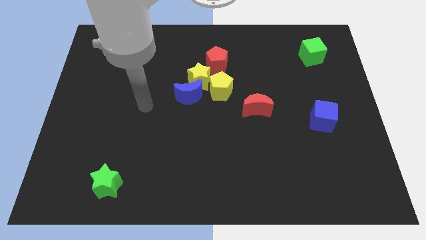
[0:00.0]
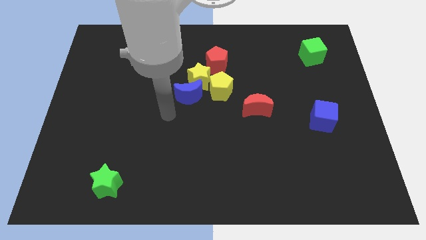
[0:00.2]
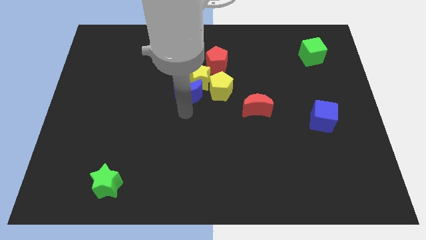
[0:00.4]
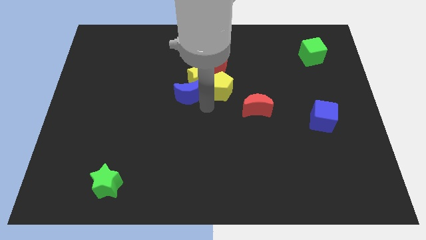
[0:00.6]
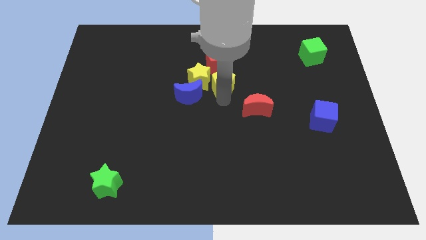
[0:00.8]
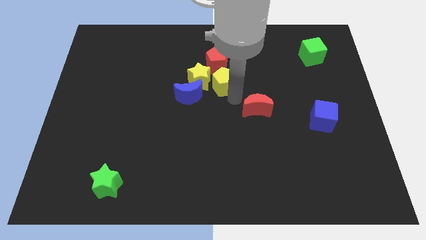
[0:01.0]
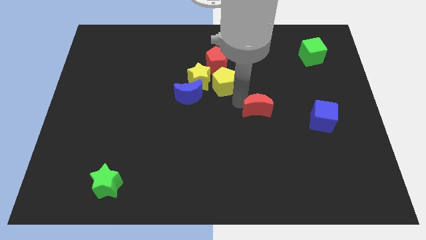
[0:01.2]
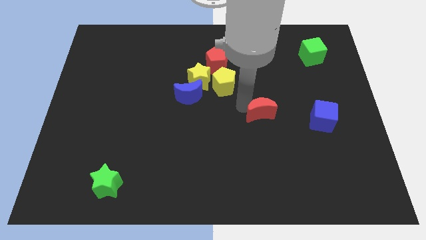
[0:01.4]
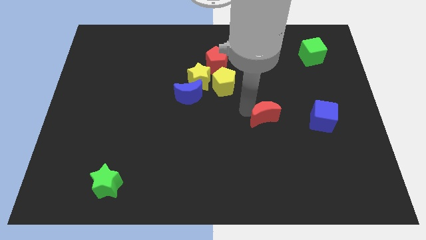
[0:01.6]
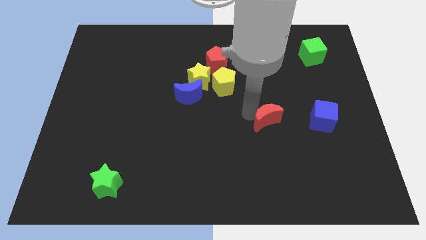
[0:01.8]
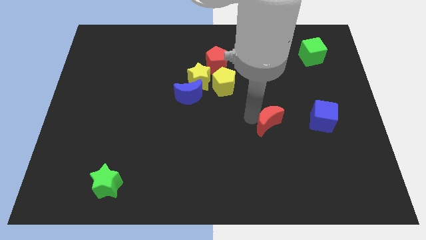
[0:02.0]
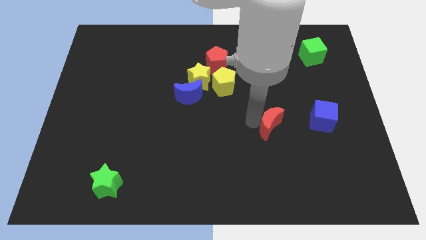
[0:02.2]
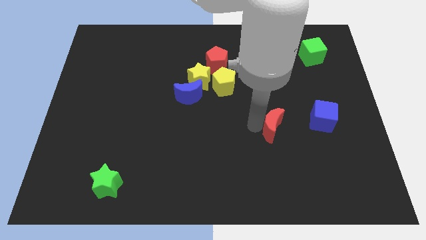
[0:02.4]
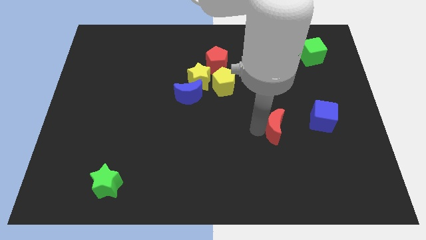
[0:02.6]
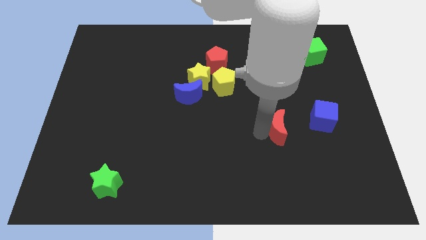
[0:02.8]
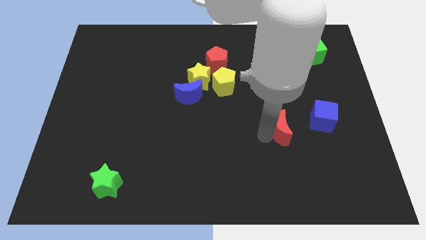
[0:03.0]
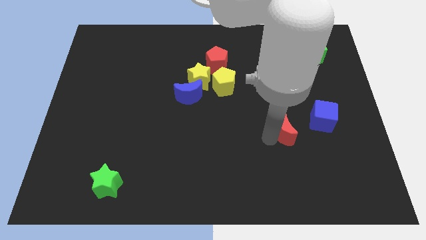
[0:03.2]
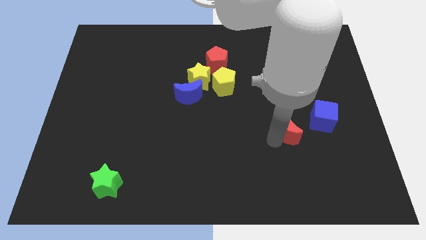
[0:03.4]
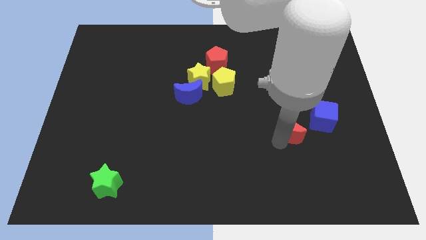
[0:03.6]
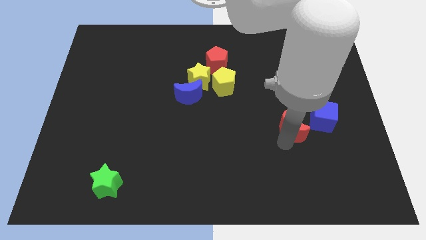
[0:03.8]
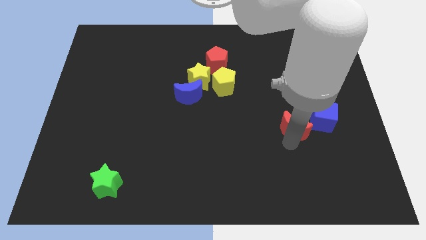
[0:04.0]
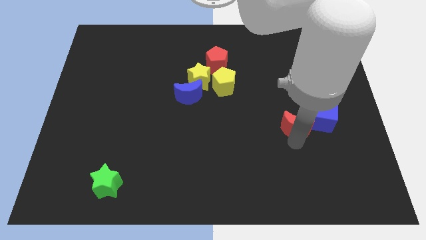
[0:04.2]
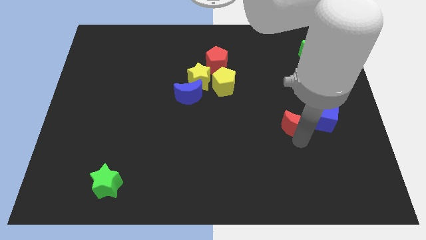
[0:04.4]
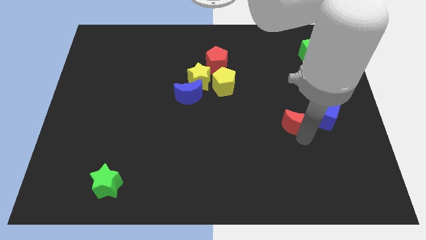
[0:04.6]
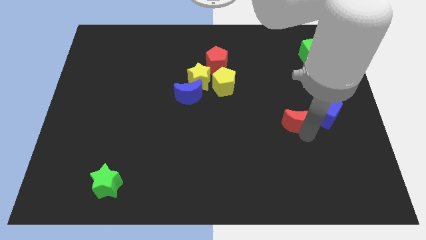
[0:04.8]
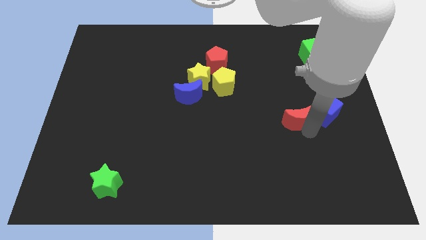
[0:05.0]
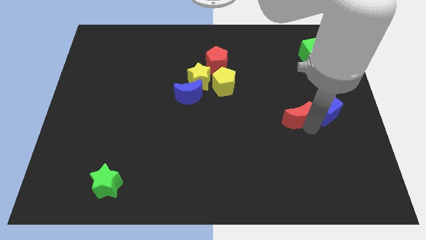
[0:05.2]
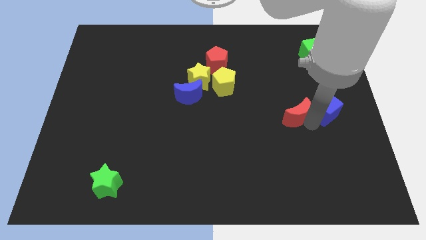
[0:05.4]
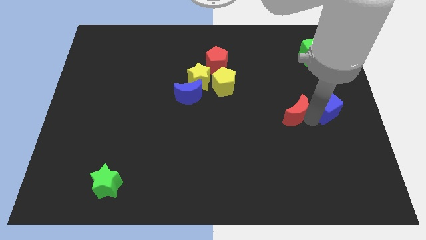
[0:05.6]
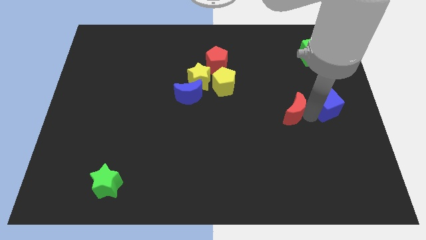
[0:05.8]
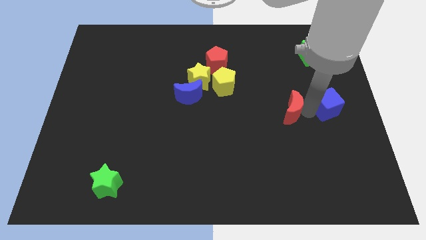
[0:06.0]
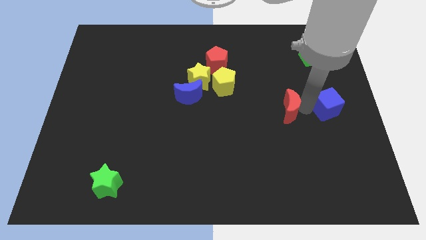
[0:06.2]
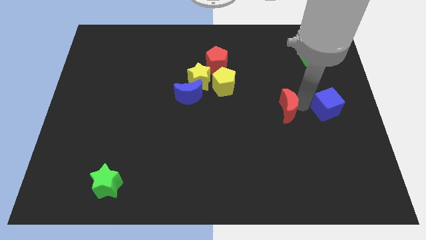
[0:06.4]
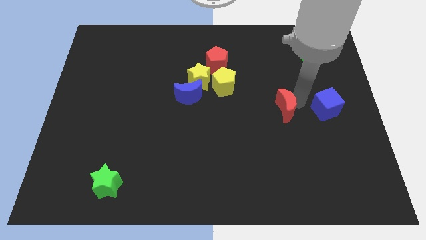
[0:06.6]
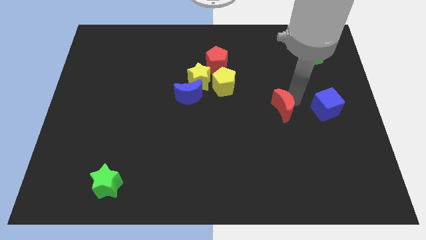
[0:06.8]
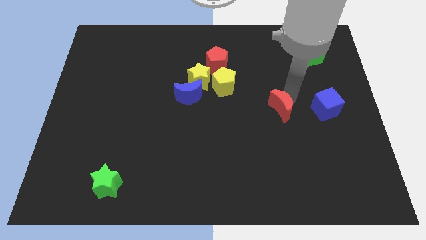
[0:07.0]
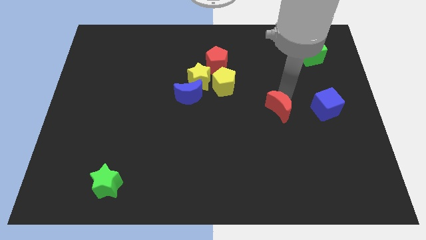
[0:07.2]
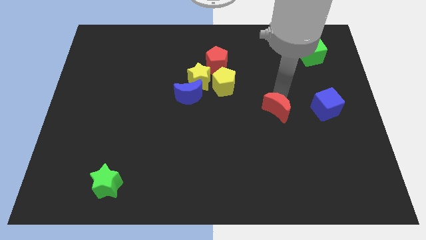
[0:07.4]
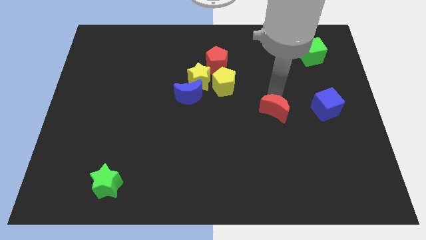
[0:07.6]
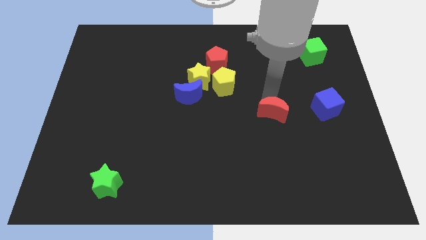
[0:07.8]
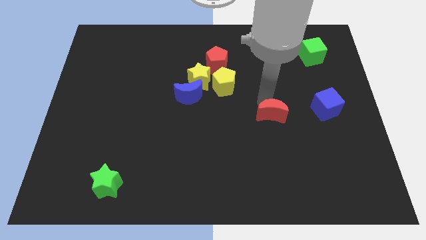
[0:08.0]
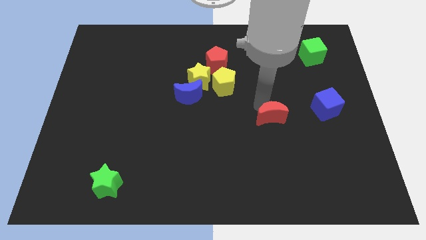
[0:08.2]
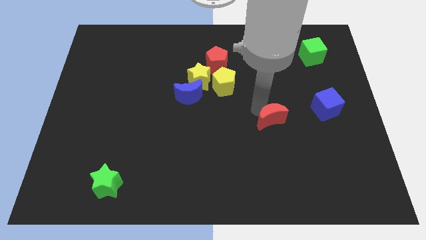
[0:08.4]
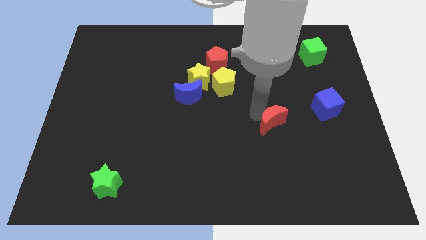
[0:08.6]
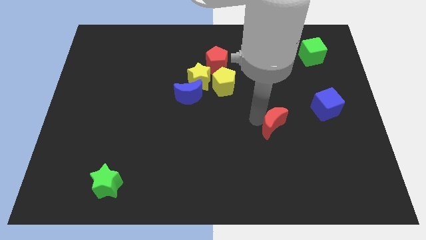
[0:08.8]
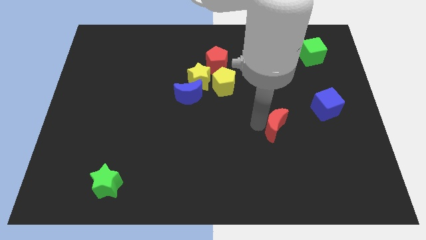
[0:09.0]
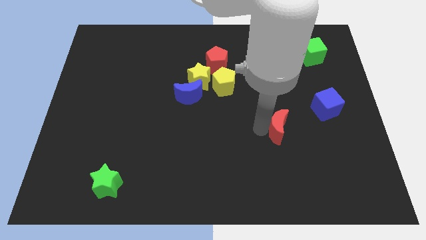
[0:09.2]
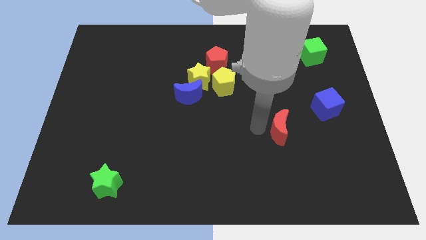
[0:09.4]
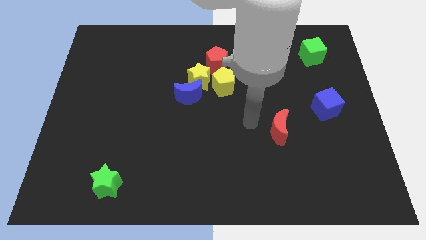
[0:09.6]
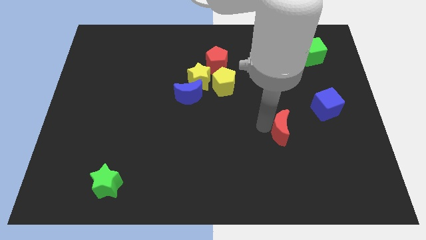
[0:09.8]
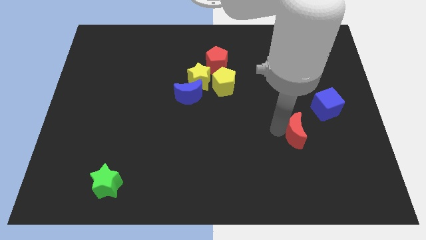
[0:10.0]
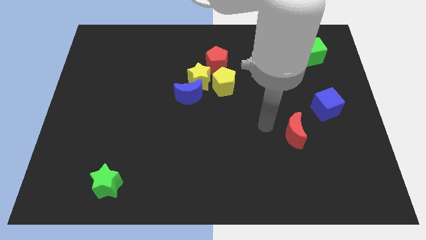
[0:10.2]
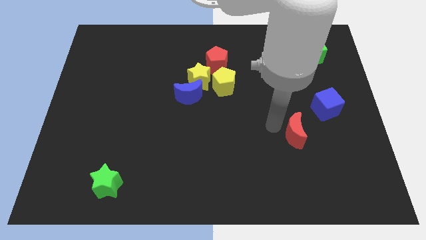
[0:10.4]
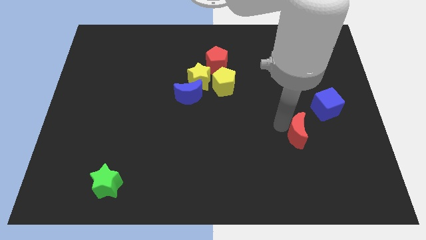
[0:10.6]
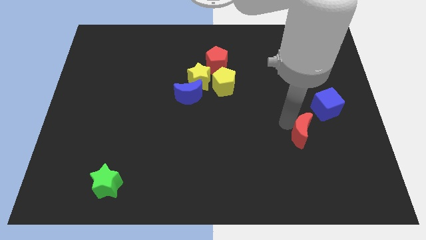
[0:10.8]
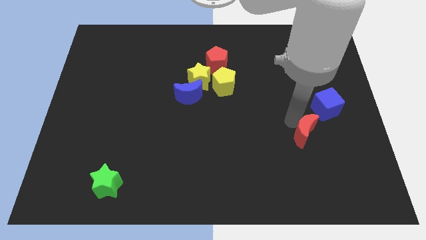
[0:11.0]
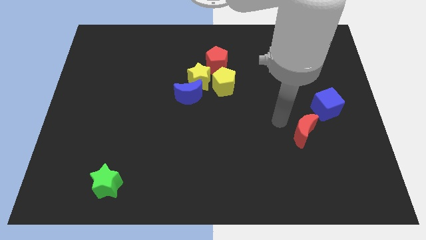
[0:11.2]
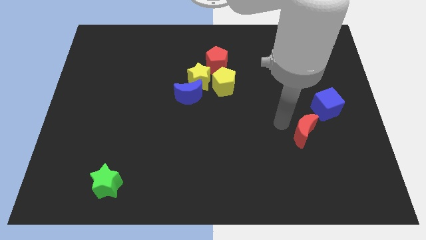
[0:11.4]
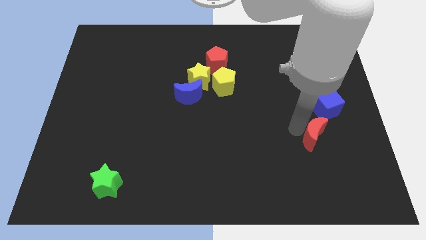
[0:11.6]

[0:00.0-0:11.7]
put the red moon to the bottom side of the blue cube

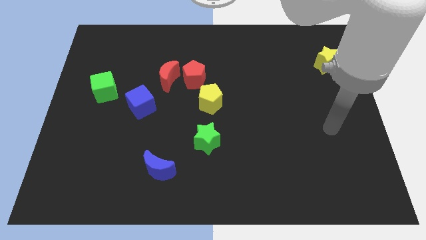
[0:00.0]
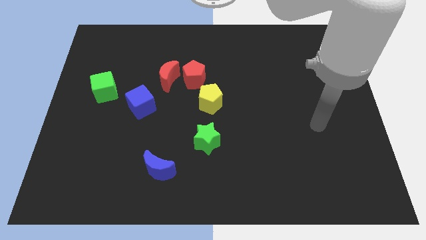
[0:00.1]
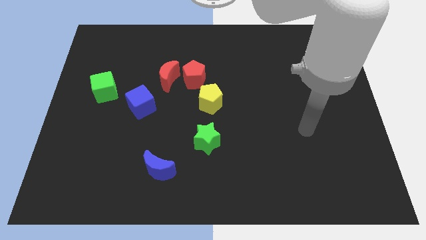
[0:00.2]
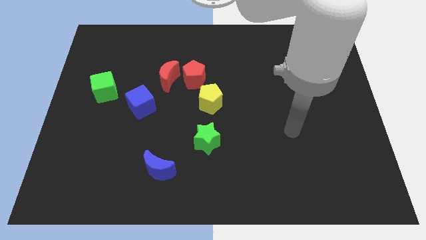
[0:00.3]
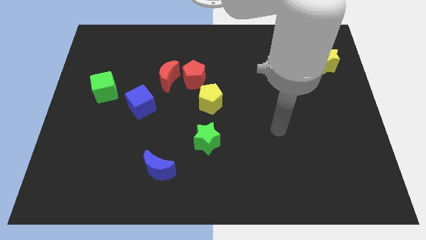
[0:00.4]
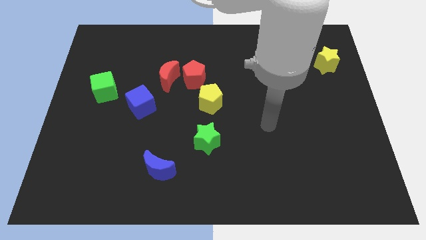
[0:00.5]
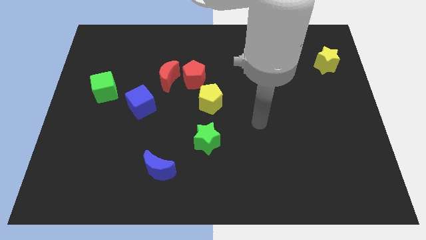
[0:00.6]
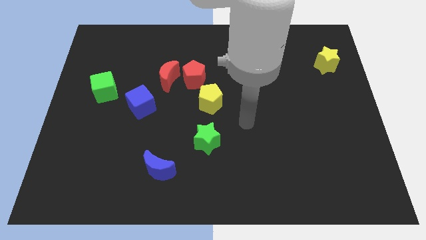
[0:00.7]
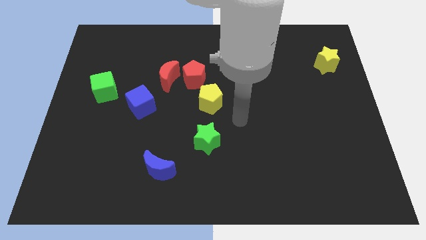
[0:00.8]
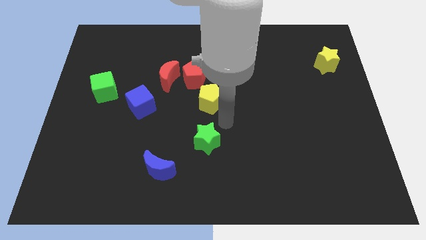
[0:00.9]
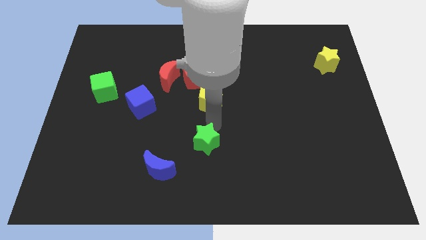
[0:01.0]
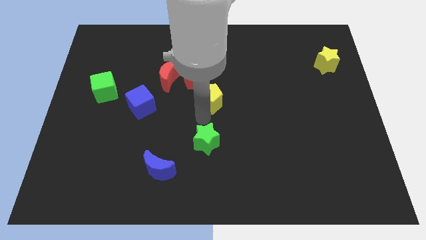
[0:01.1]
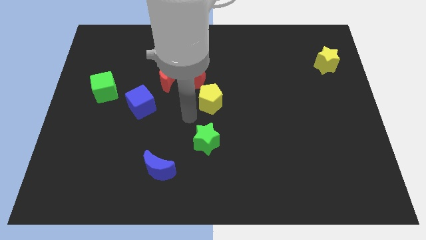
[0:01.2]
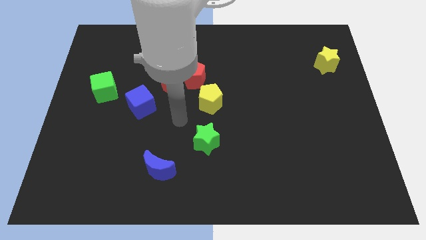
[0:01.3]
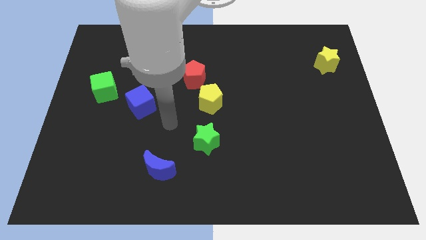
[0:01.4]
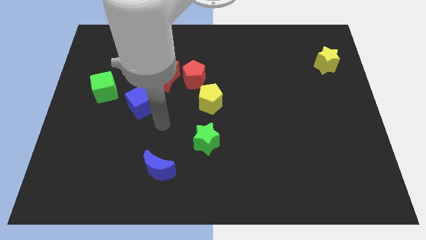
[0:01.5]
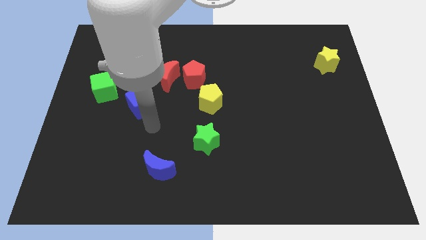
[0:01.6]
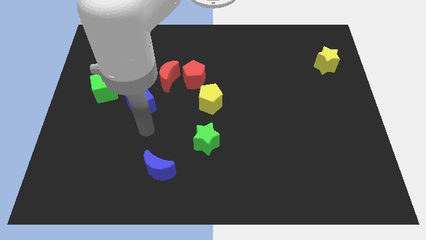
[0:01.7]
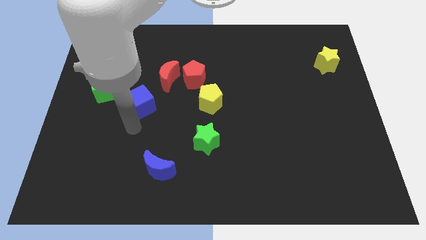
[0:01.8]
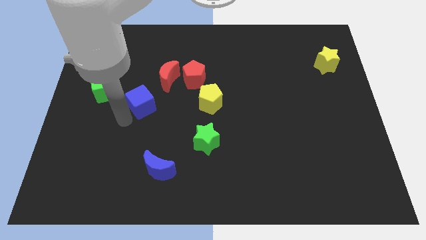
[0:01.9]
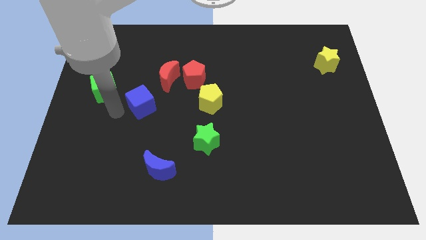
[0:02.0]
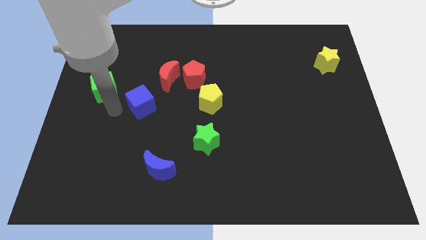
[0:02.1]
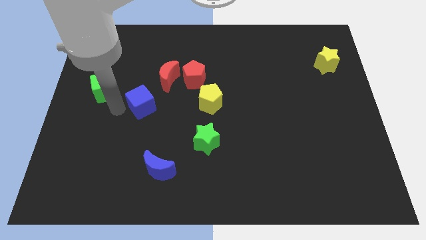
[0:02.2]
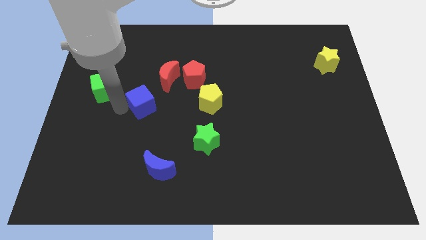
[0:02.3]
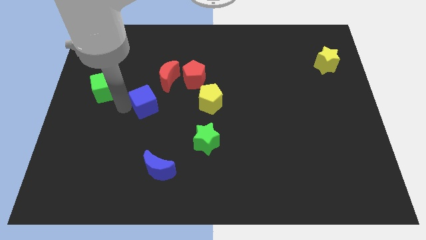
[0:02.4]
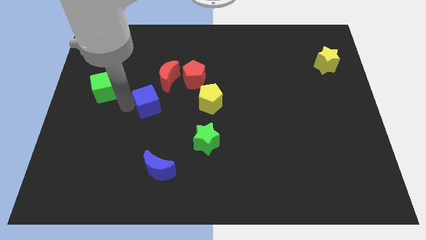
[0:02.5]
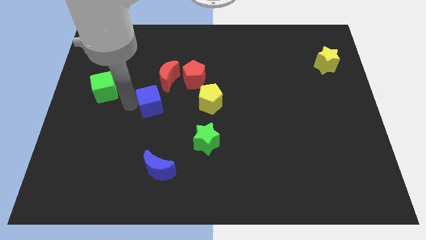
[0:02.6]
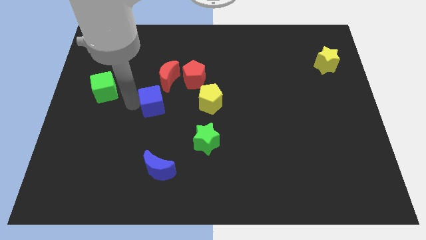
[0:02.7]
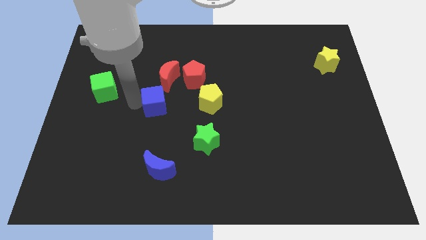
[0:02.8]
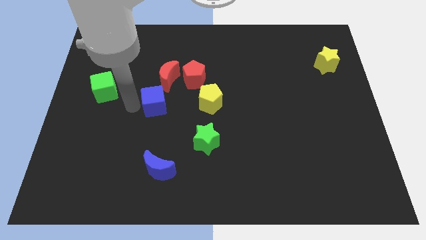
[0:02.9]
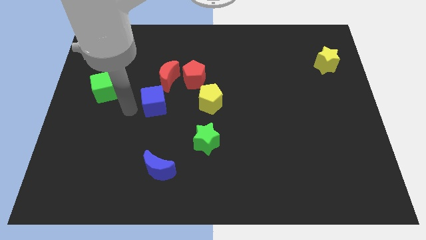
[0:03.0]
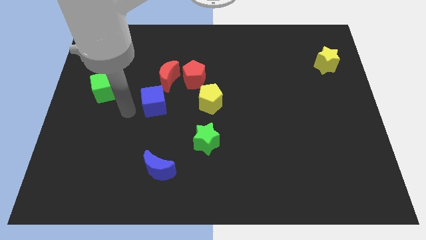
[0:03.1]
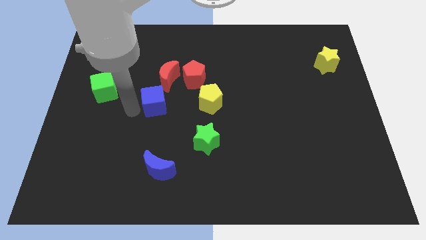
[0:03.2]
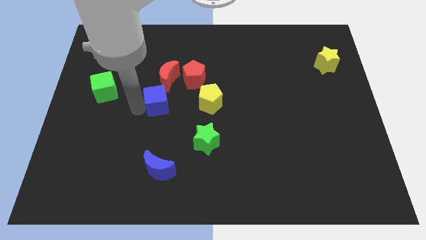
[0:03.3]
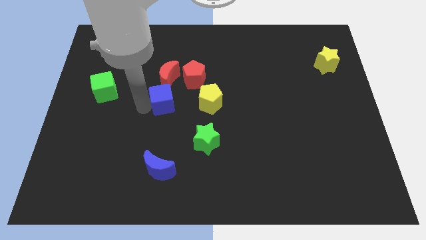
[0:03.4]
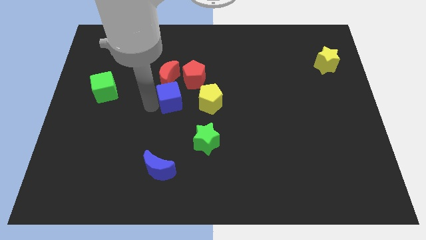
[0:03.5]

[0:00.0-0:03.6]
move the blue cube to the bottom right side of the red moon
